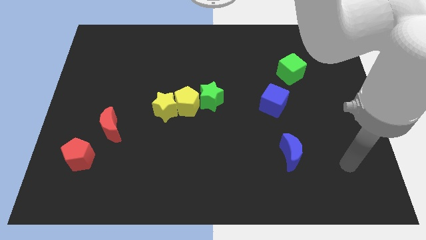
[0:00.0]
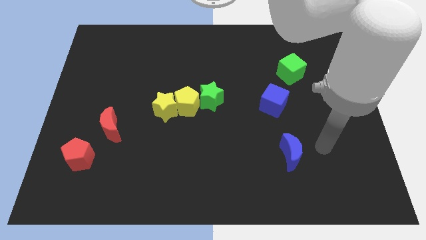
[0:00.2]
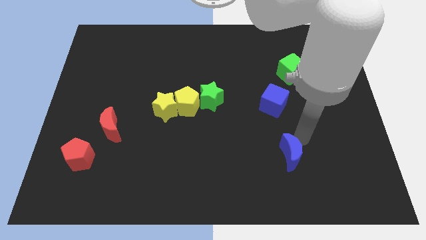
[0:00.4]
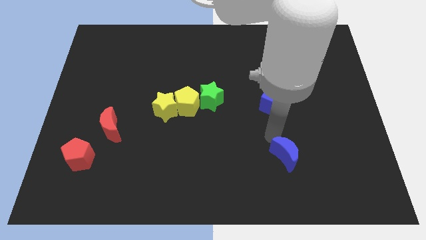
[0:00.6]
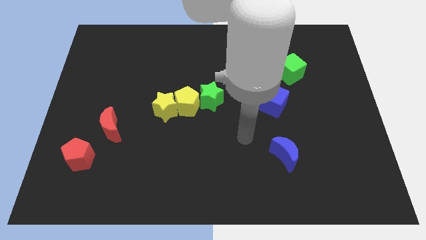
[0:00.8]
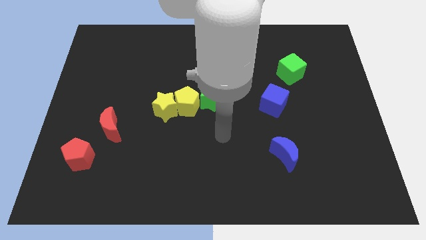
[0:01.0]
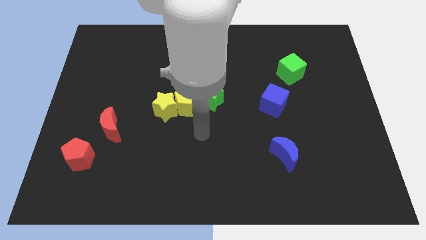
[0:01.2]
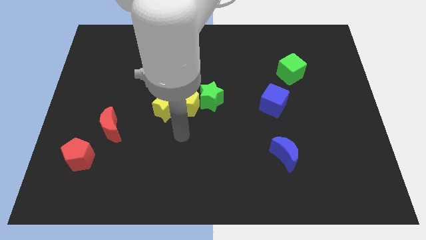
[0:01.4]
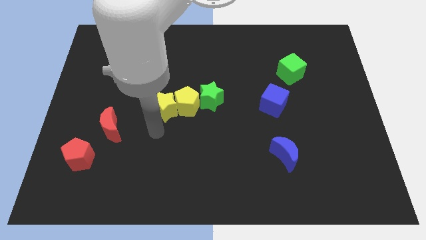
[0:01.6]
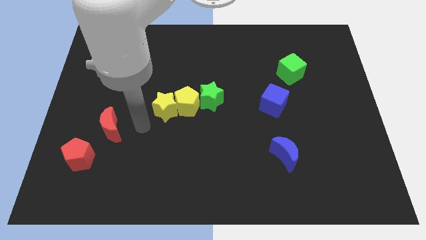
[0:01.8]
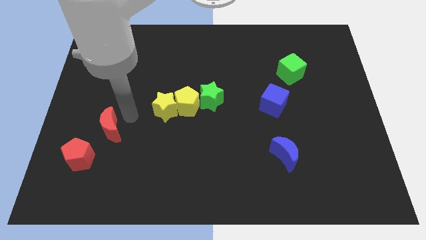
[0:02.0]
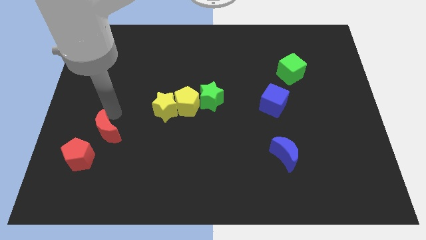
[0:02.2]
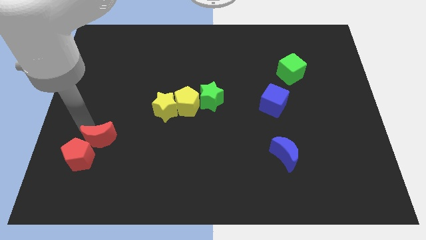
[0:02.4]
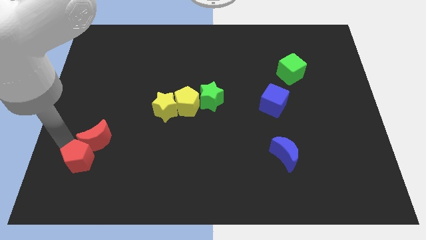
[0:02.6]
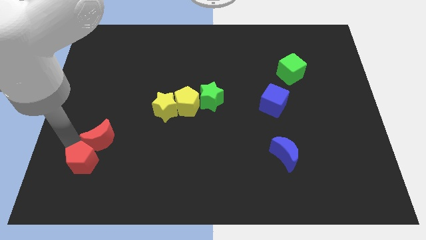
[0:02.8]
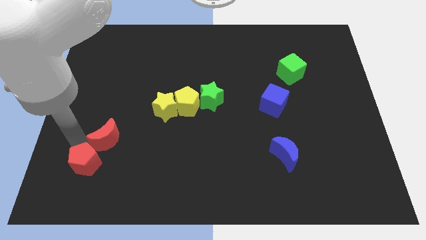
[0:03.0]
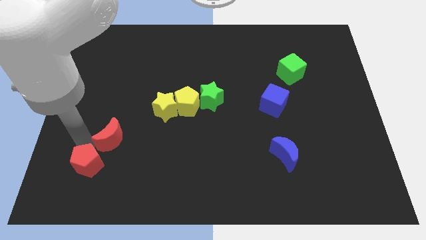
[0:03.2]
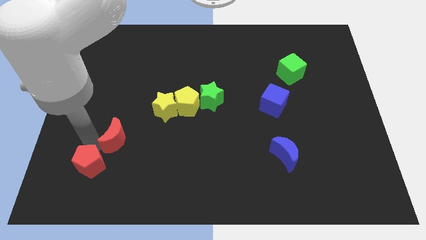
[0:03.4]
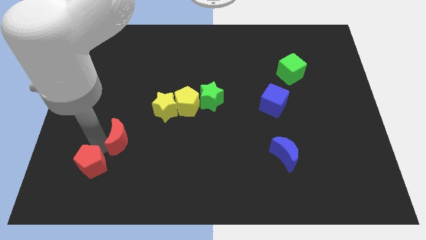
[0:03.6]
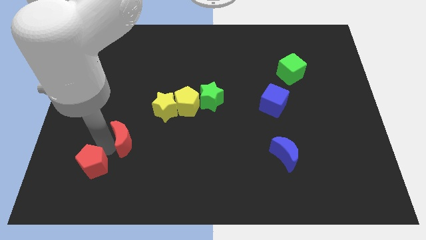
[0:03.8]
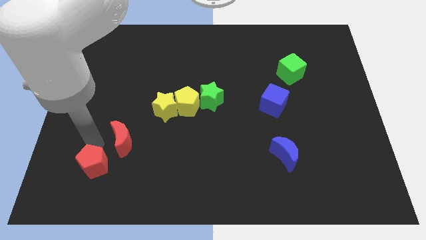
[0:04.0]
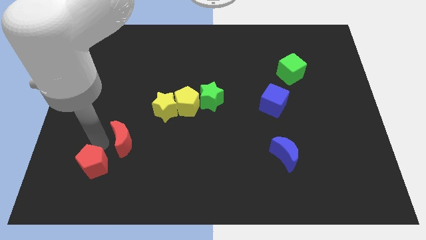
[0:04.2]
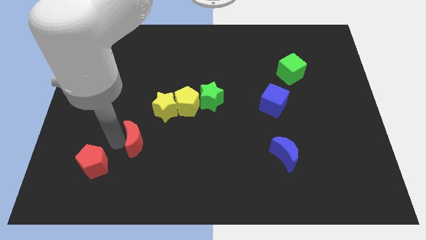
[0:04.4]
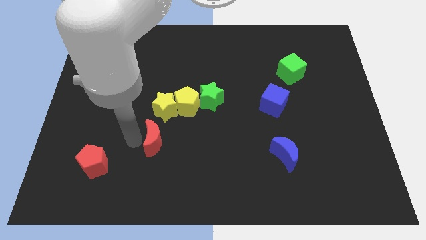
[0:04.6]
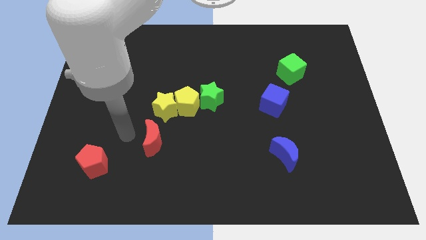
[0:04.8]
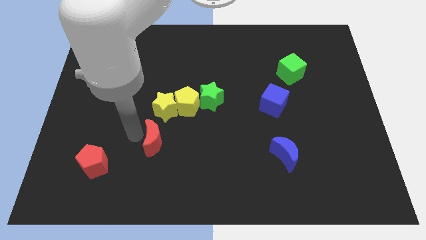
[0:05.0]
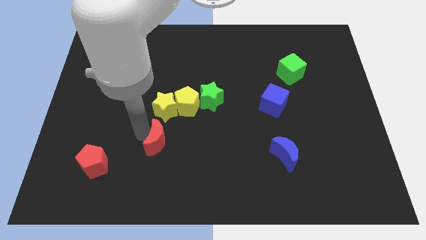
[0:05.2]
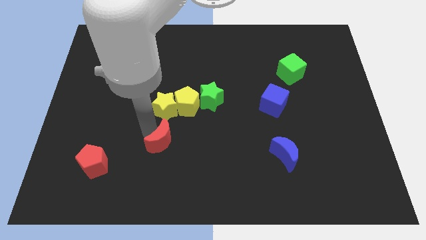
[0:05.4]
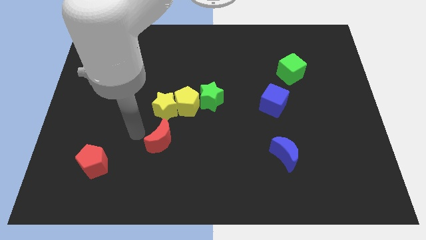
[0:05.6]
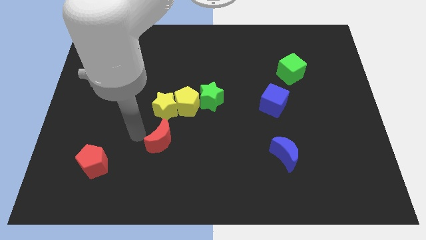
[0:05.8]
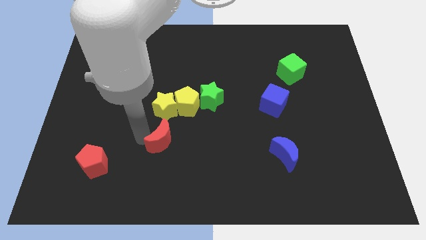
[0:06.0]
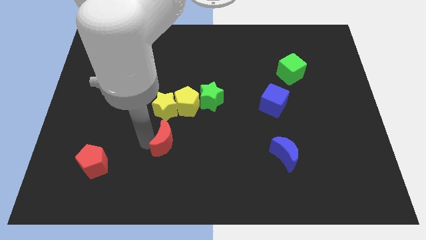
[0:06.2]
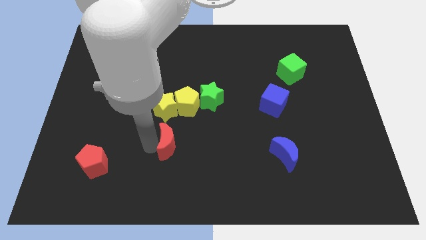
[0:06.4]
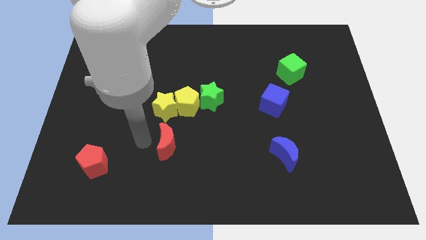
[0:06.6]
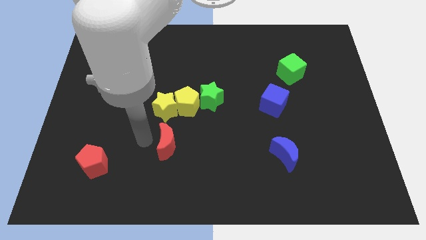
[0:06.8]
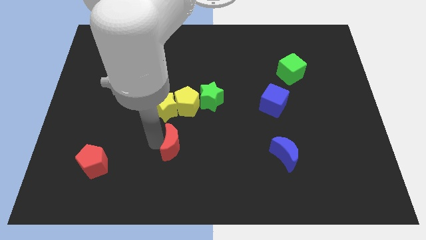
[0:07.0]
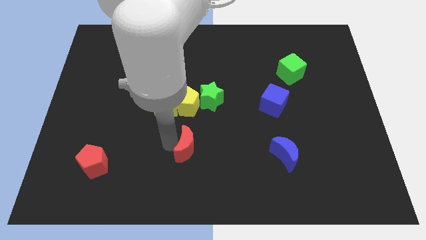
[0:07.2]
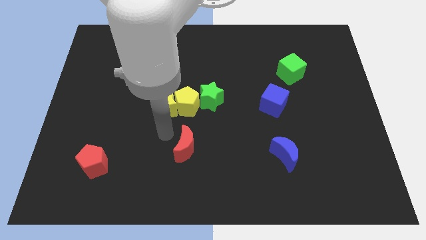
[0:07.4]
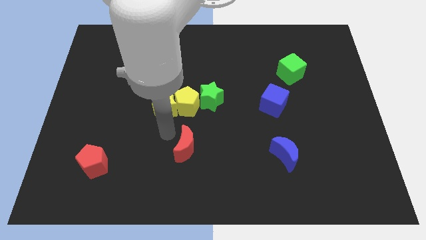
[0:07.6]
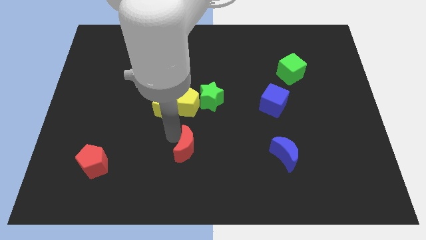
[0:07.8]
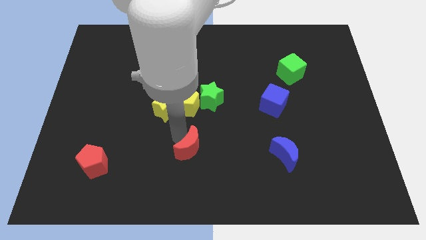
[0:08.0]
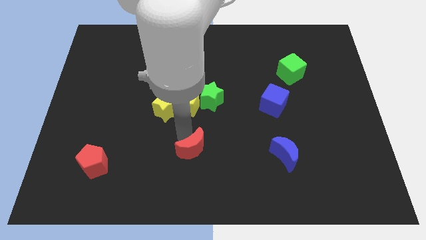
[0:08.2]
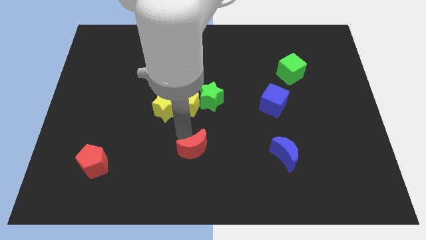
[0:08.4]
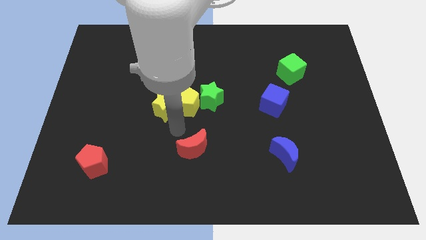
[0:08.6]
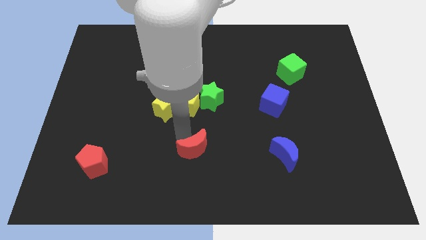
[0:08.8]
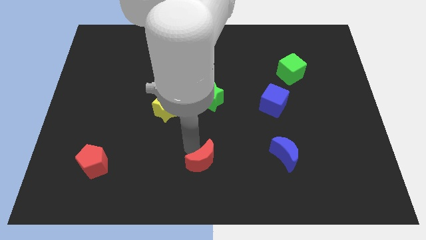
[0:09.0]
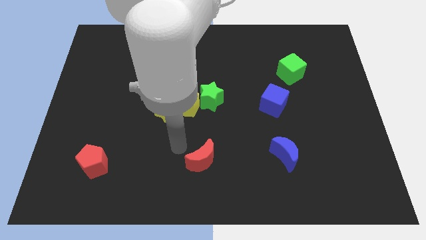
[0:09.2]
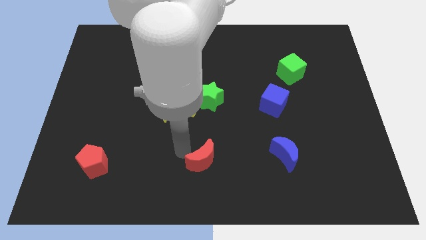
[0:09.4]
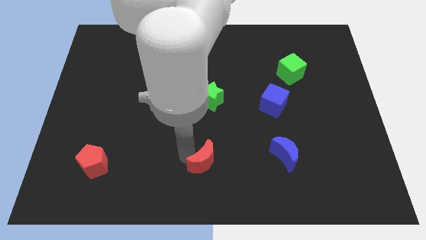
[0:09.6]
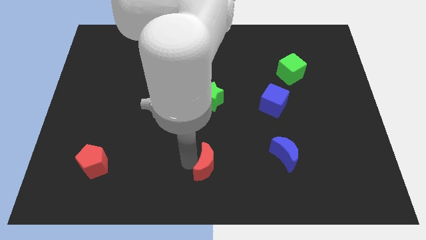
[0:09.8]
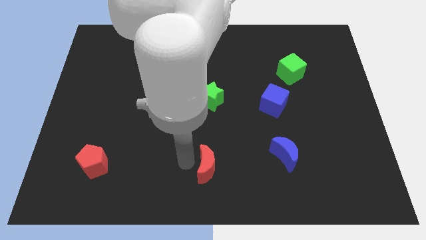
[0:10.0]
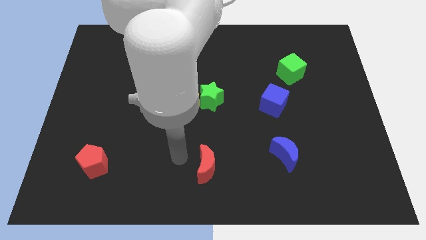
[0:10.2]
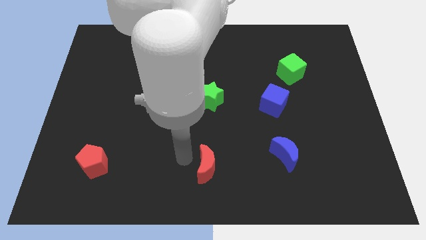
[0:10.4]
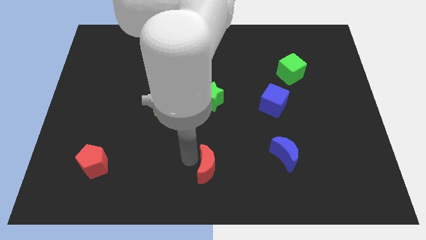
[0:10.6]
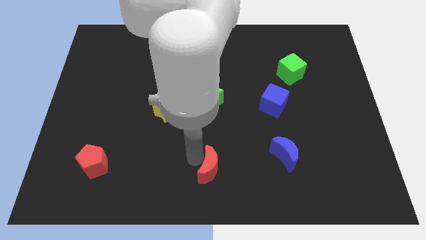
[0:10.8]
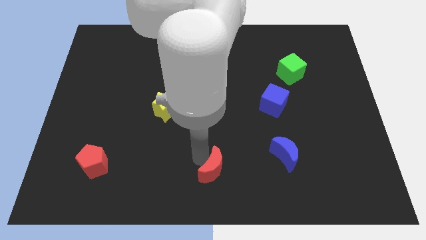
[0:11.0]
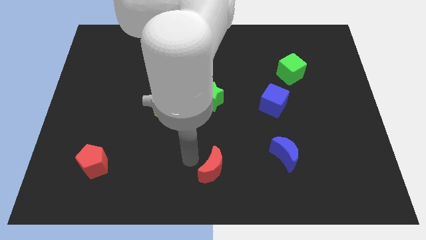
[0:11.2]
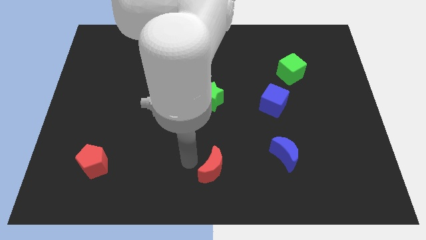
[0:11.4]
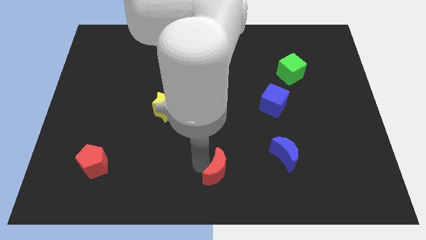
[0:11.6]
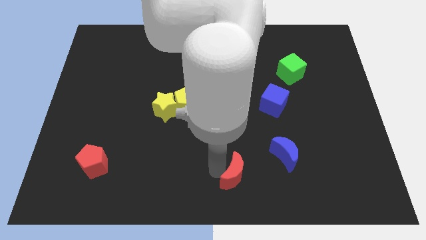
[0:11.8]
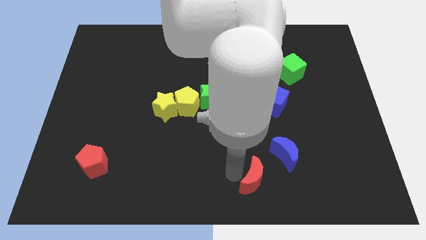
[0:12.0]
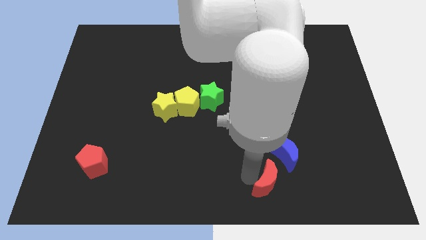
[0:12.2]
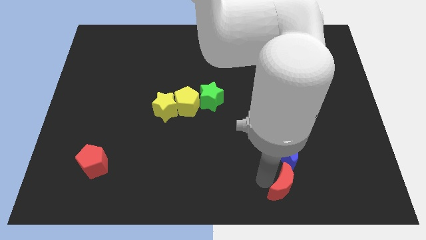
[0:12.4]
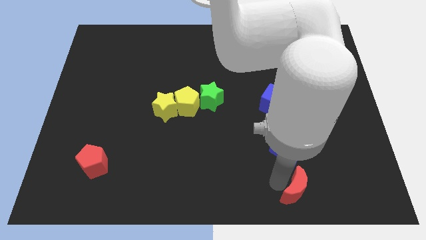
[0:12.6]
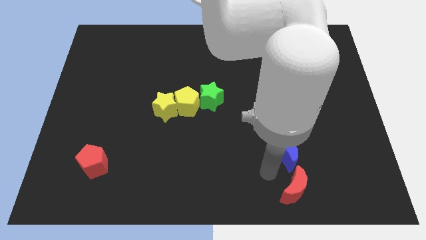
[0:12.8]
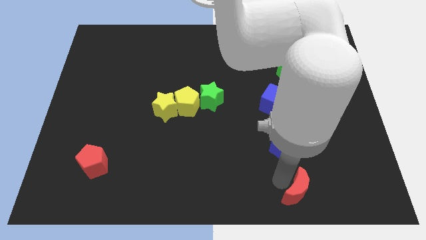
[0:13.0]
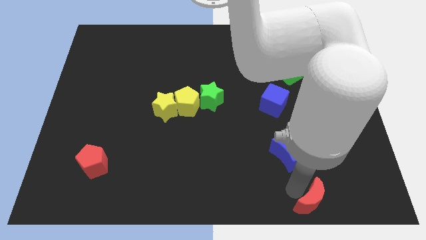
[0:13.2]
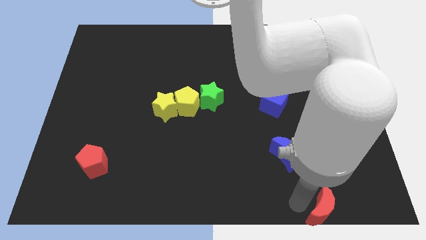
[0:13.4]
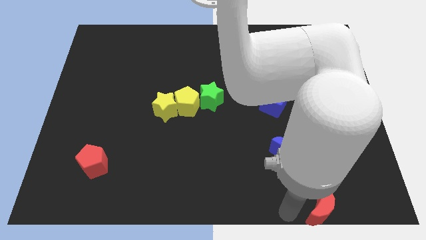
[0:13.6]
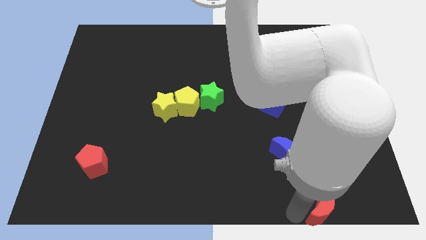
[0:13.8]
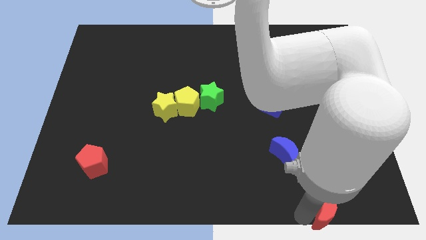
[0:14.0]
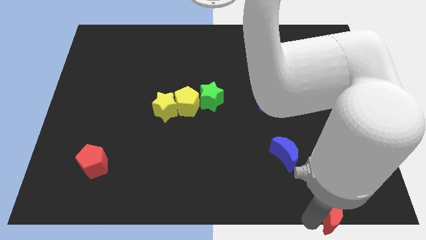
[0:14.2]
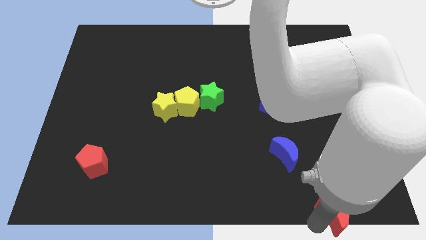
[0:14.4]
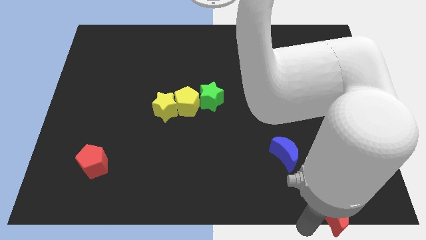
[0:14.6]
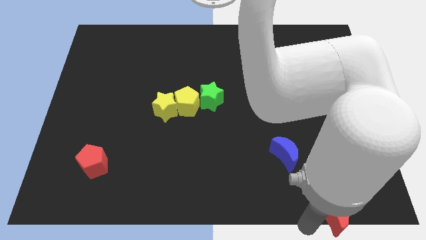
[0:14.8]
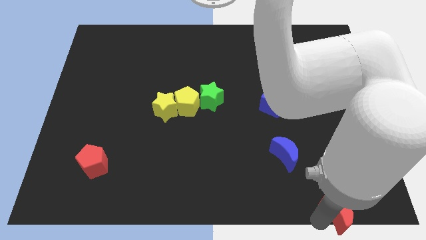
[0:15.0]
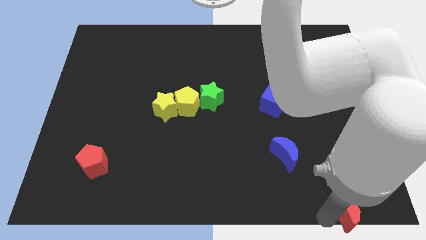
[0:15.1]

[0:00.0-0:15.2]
move the red moon to the bottom right corner
